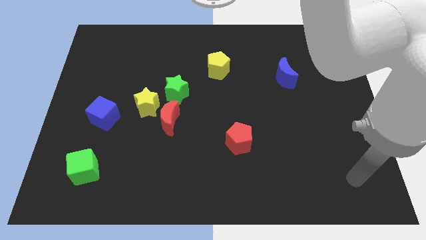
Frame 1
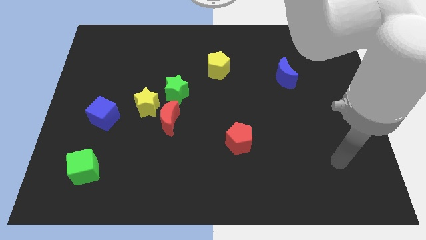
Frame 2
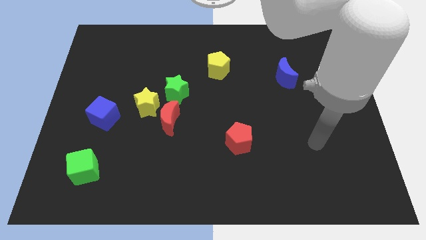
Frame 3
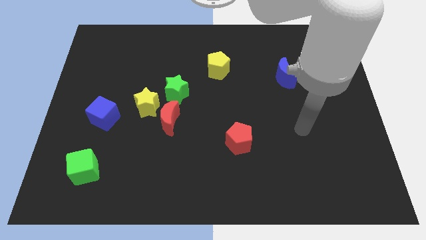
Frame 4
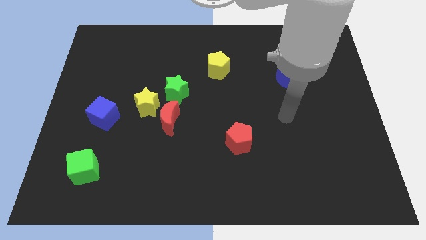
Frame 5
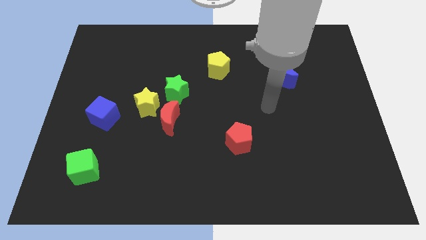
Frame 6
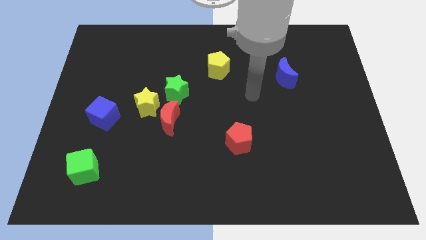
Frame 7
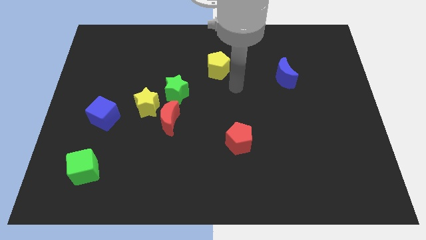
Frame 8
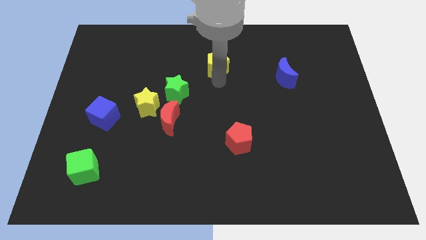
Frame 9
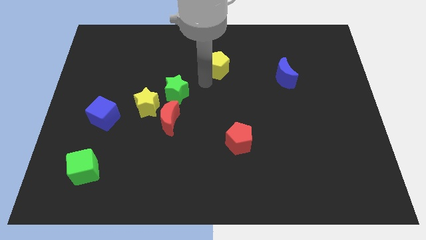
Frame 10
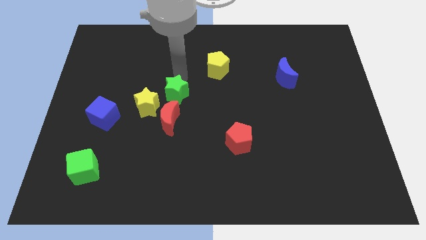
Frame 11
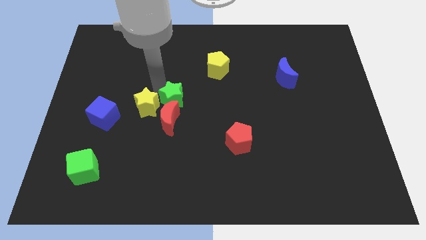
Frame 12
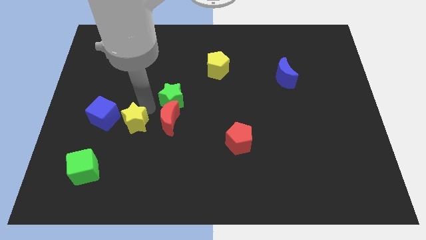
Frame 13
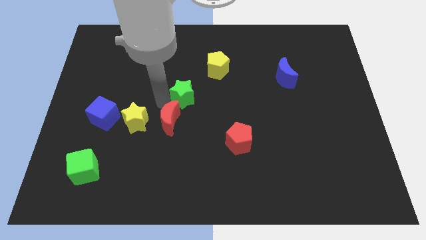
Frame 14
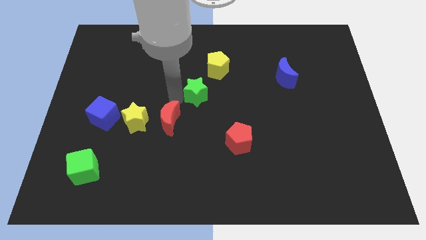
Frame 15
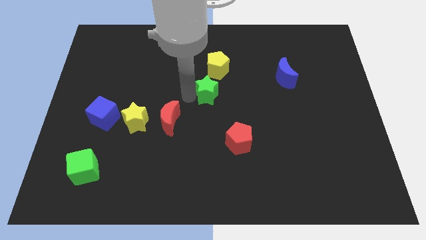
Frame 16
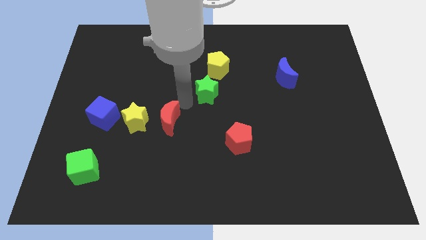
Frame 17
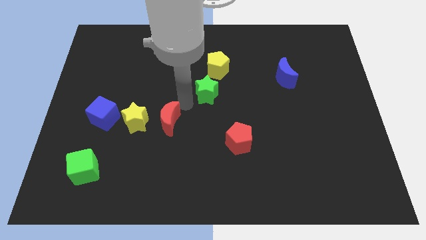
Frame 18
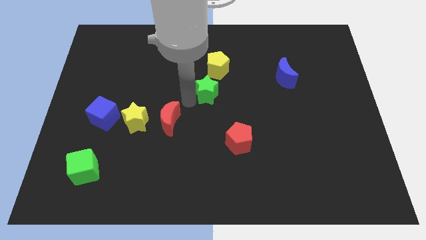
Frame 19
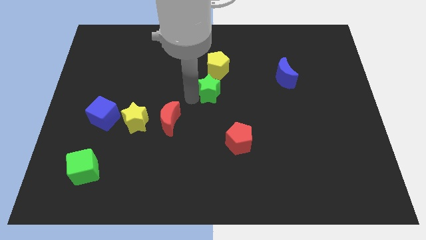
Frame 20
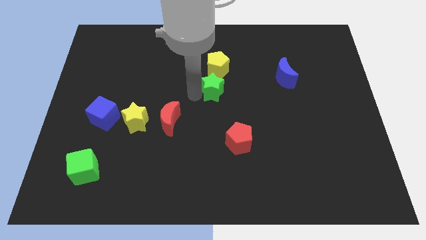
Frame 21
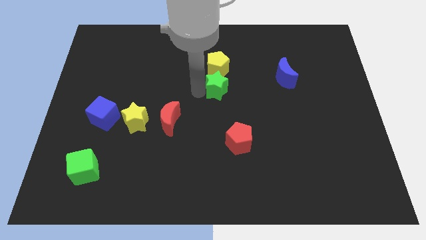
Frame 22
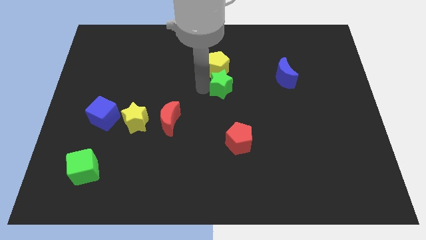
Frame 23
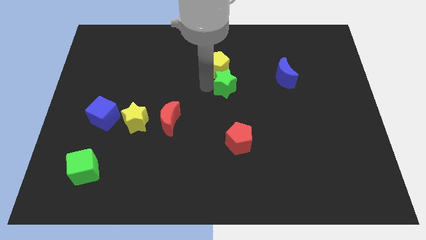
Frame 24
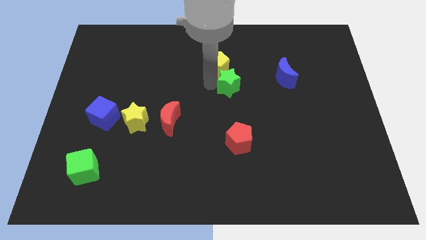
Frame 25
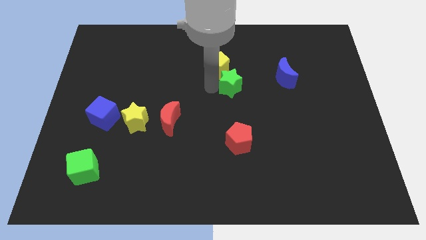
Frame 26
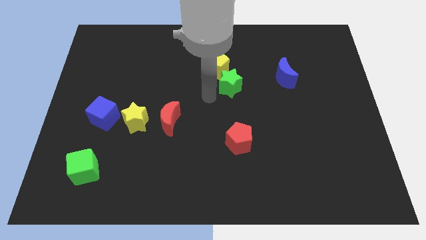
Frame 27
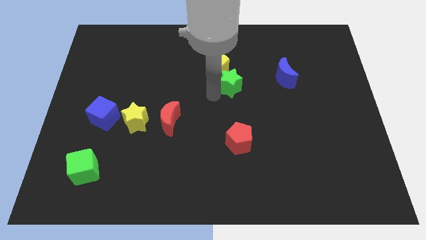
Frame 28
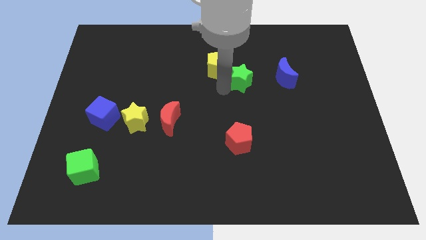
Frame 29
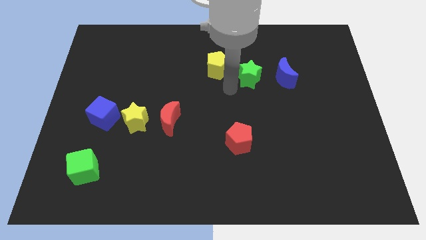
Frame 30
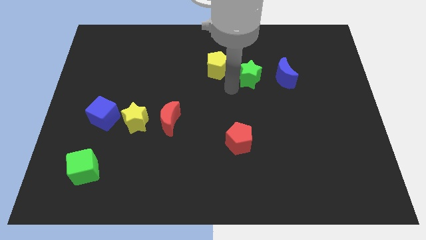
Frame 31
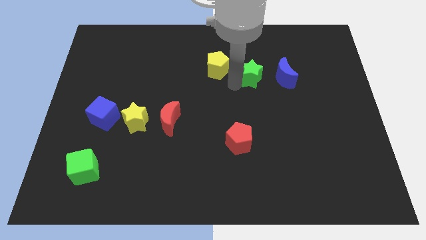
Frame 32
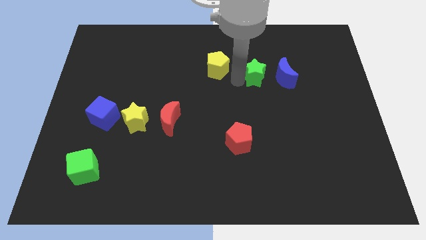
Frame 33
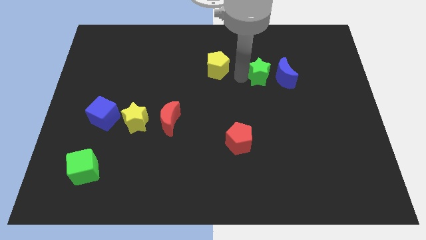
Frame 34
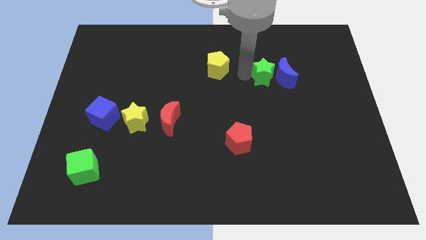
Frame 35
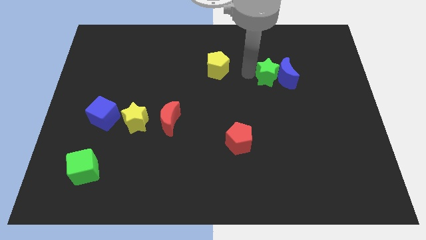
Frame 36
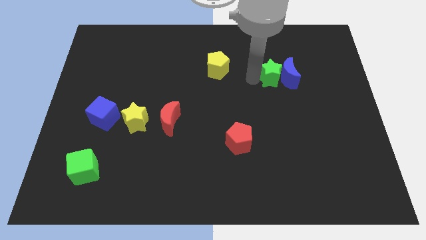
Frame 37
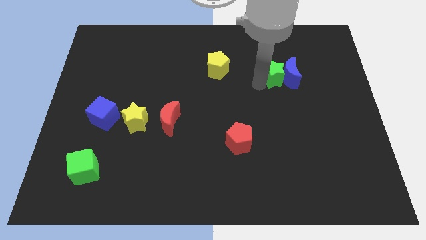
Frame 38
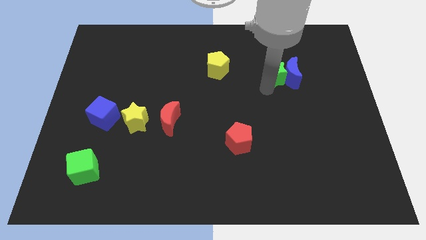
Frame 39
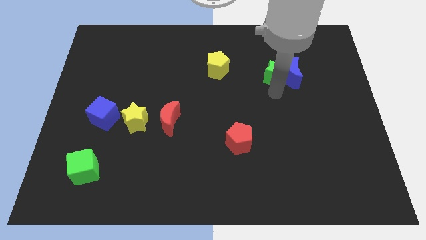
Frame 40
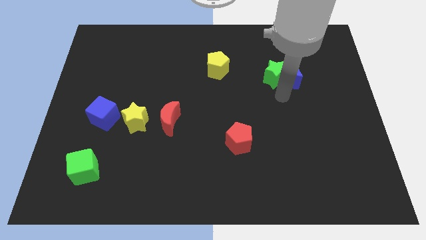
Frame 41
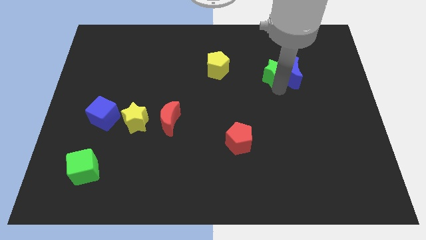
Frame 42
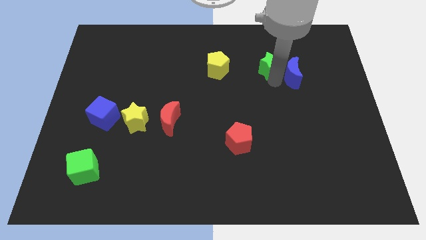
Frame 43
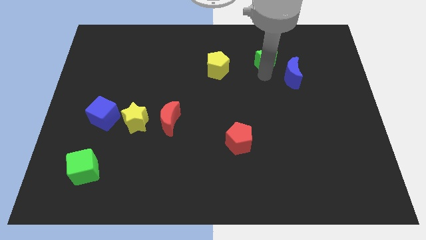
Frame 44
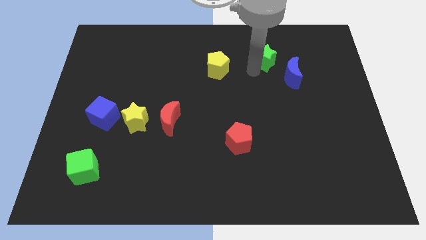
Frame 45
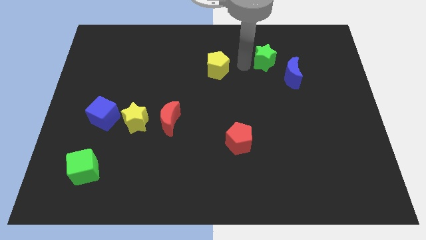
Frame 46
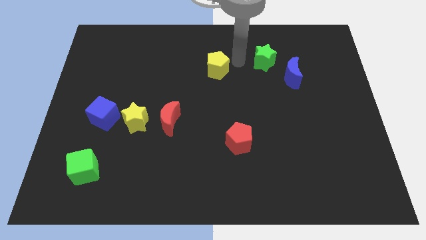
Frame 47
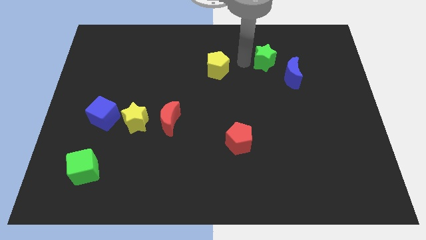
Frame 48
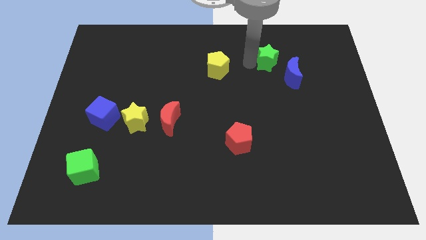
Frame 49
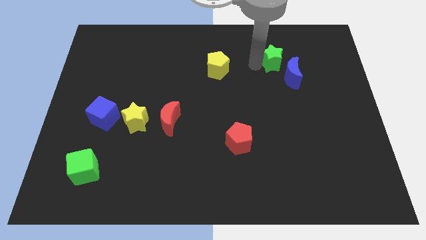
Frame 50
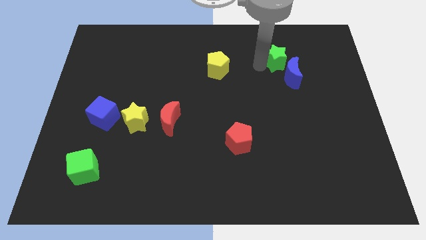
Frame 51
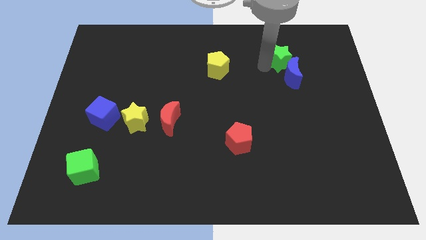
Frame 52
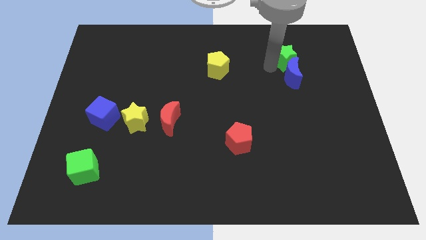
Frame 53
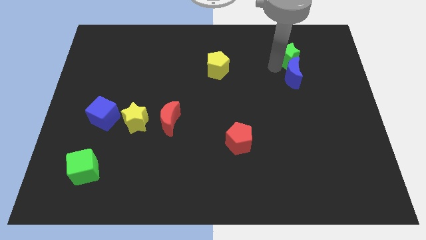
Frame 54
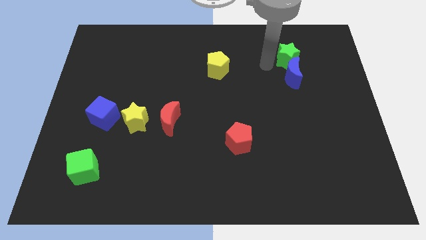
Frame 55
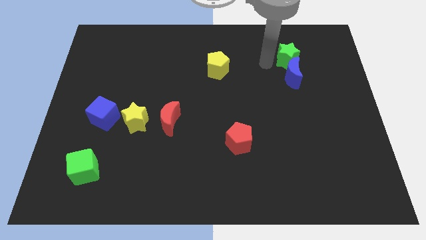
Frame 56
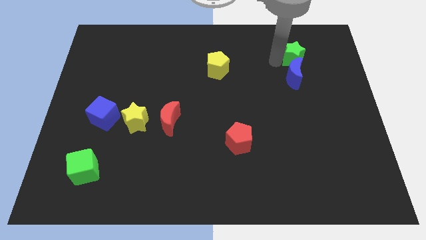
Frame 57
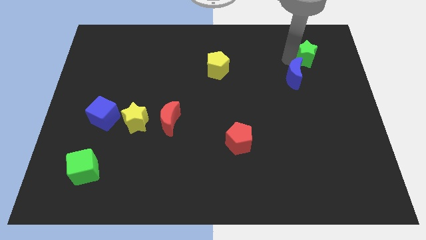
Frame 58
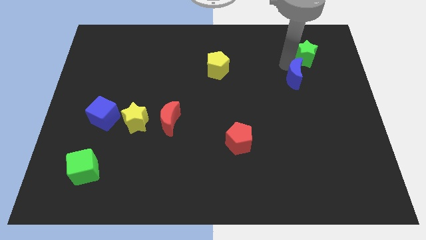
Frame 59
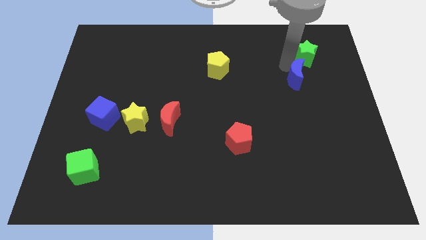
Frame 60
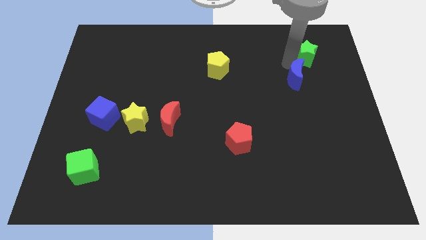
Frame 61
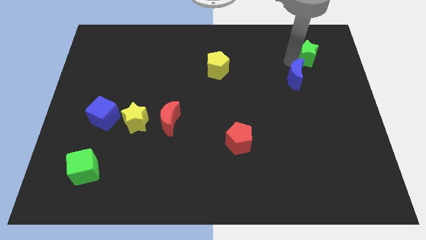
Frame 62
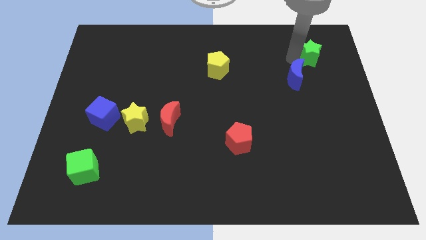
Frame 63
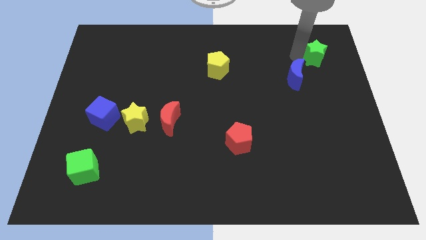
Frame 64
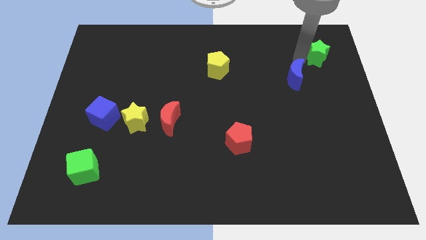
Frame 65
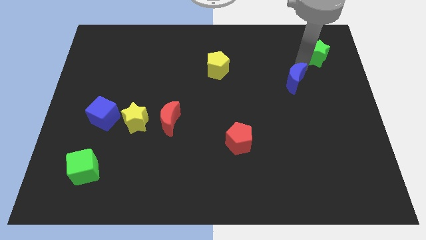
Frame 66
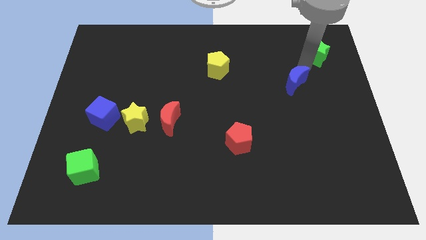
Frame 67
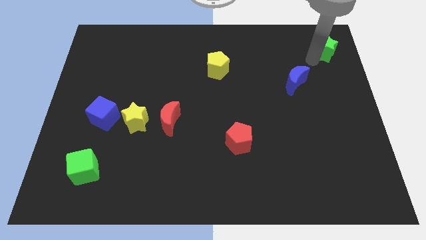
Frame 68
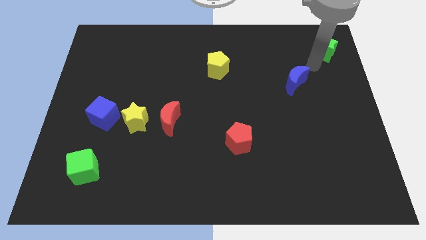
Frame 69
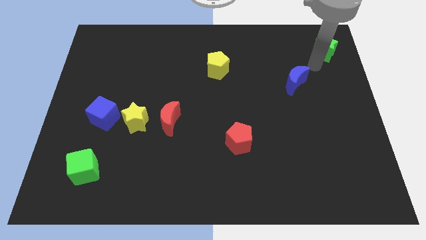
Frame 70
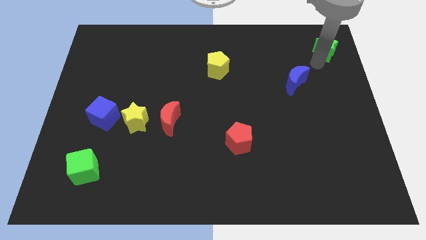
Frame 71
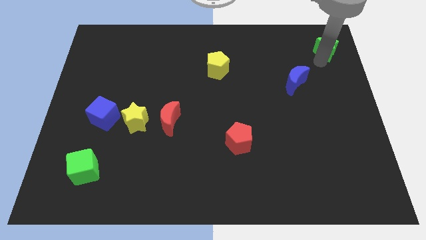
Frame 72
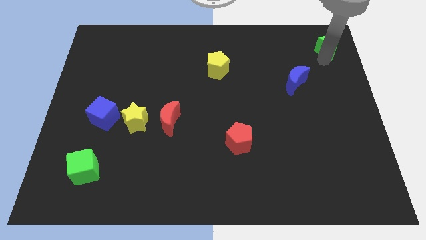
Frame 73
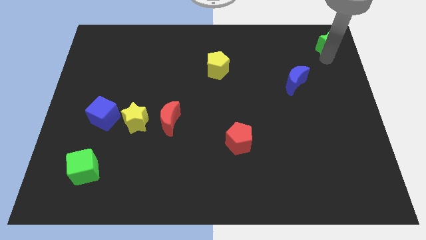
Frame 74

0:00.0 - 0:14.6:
push the green star to the top right corner
